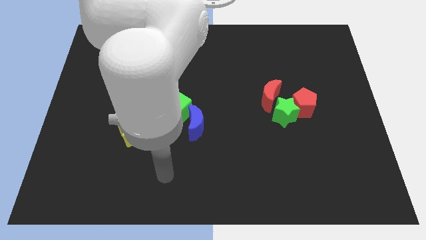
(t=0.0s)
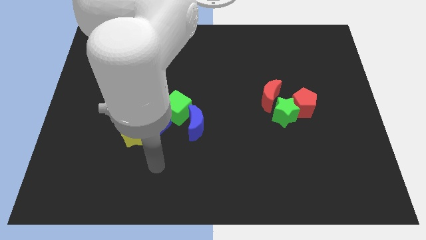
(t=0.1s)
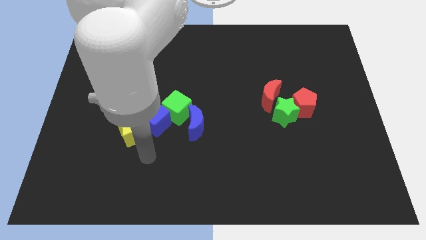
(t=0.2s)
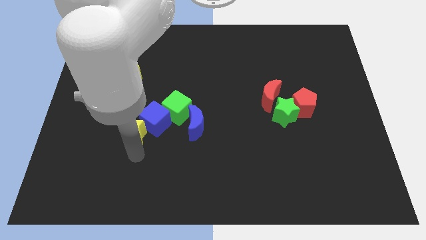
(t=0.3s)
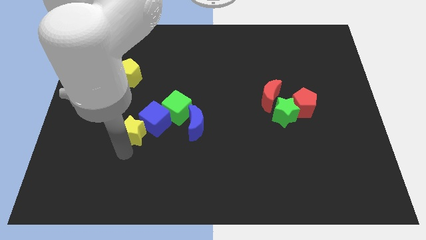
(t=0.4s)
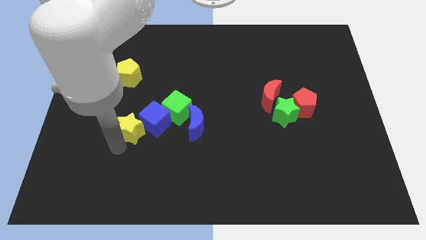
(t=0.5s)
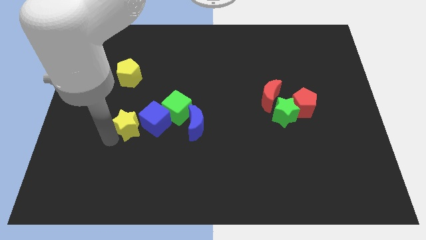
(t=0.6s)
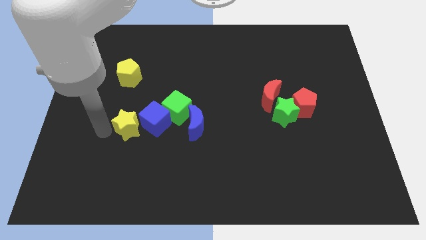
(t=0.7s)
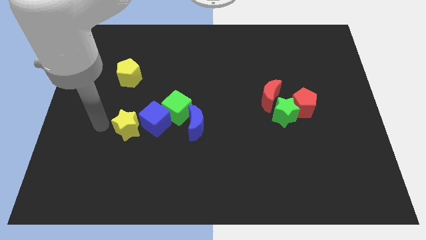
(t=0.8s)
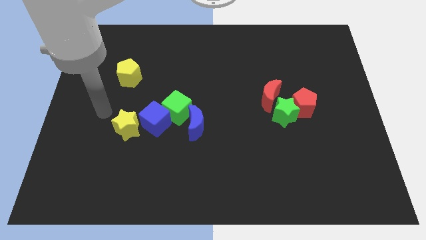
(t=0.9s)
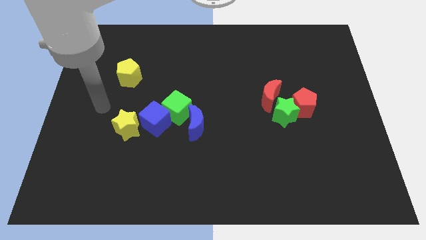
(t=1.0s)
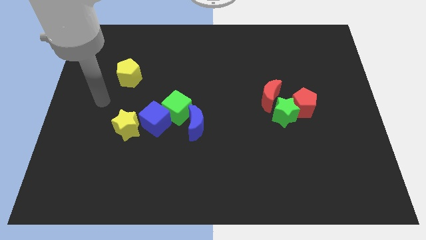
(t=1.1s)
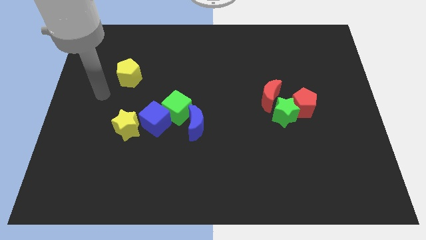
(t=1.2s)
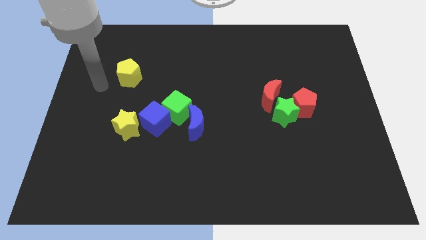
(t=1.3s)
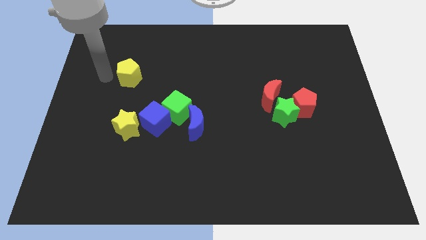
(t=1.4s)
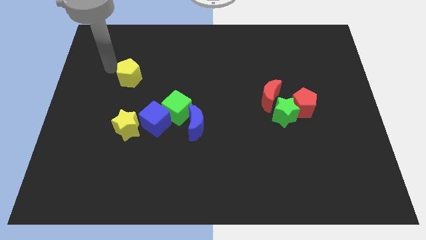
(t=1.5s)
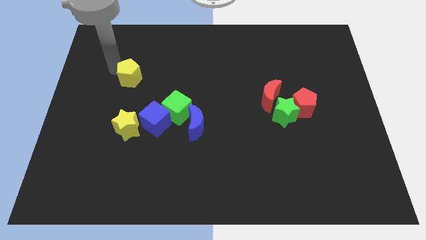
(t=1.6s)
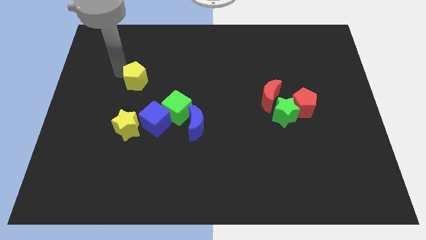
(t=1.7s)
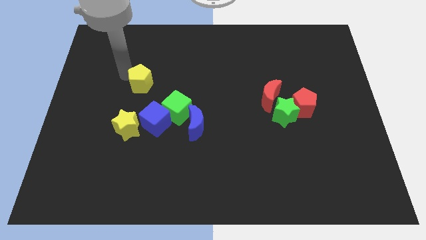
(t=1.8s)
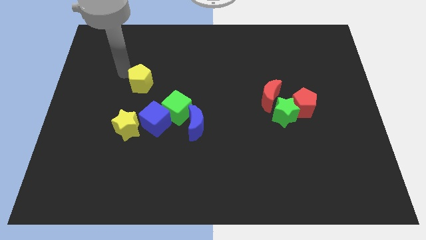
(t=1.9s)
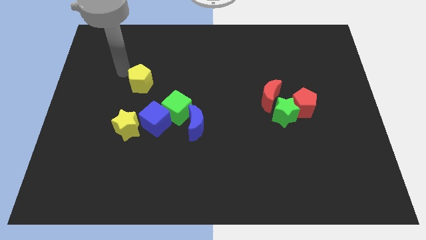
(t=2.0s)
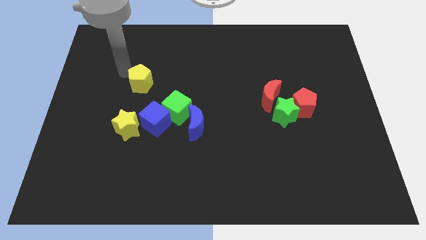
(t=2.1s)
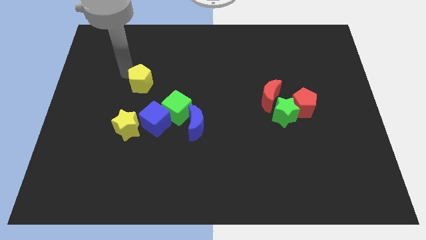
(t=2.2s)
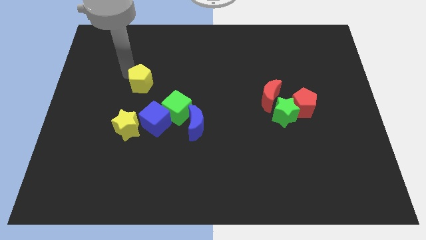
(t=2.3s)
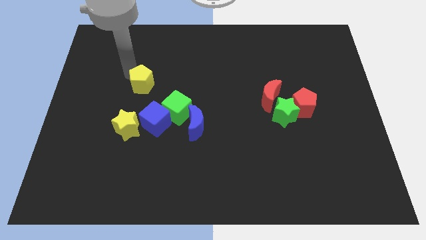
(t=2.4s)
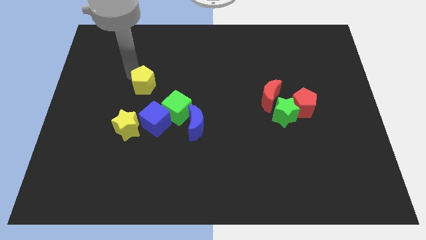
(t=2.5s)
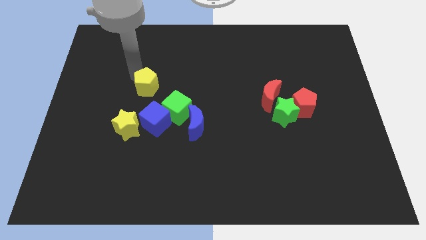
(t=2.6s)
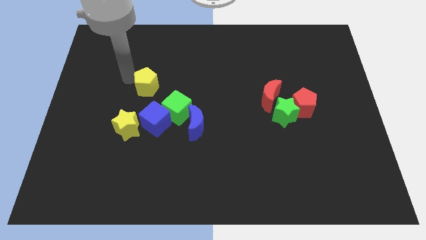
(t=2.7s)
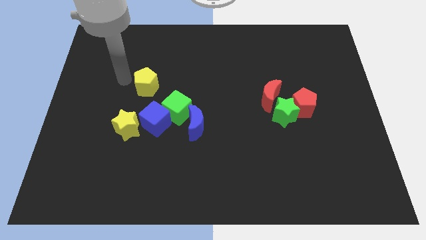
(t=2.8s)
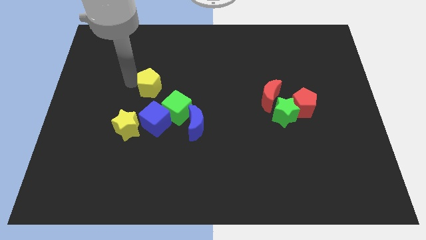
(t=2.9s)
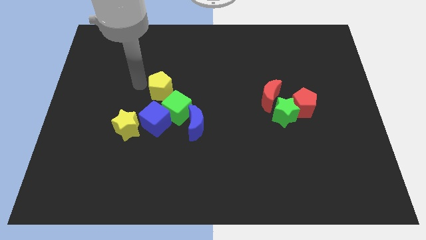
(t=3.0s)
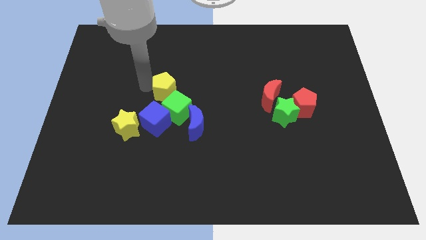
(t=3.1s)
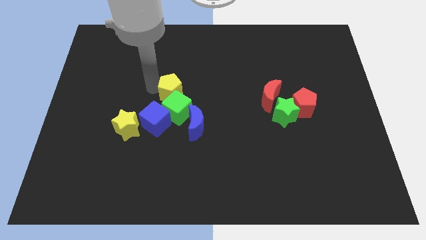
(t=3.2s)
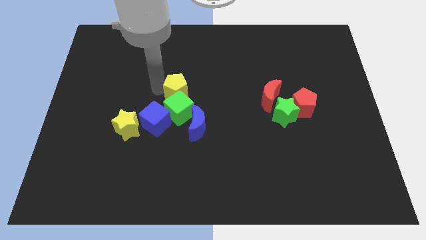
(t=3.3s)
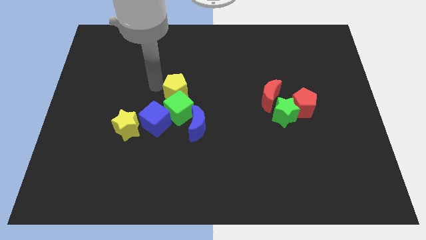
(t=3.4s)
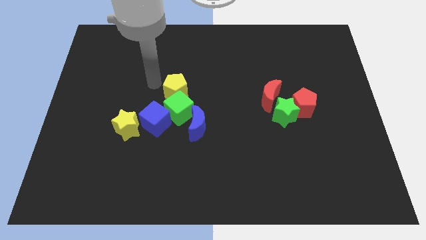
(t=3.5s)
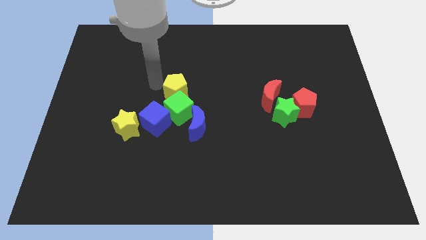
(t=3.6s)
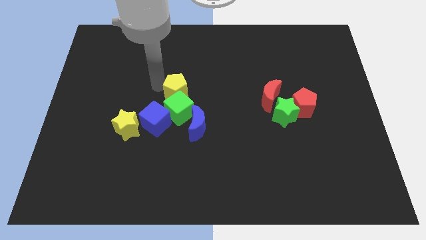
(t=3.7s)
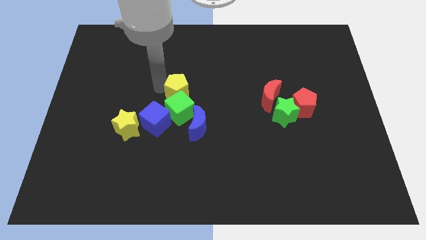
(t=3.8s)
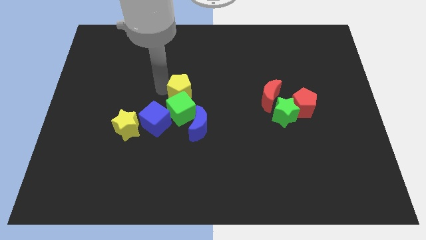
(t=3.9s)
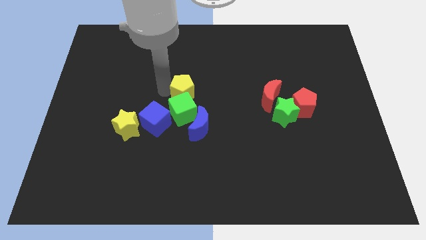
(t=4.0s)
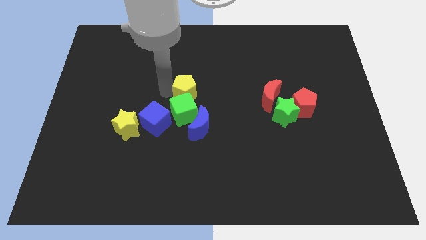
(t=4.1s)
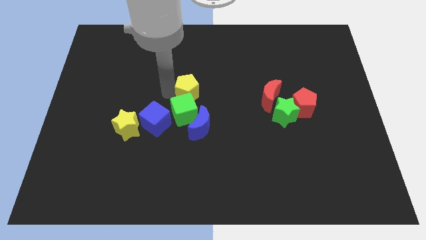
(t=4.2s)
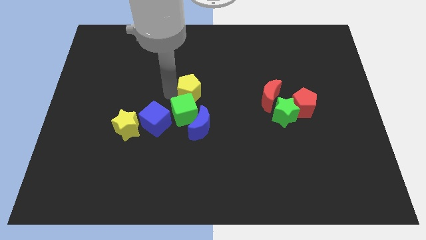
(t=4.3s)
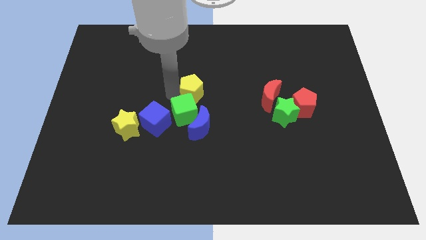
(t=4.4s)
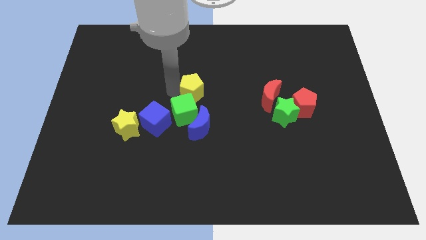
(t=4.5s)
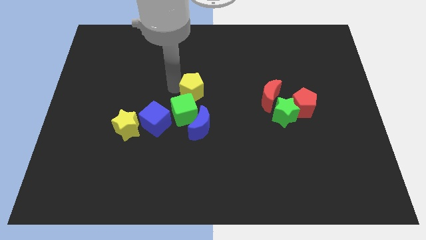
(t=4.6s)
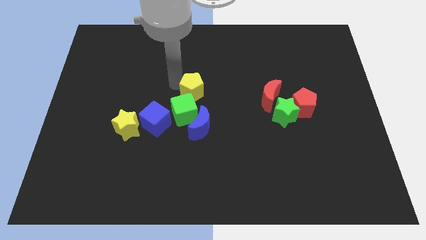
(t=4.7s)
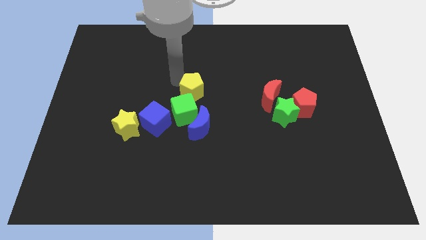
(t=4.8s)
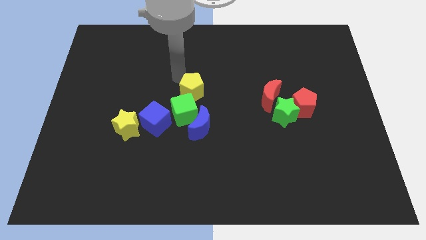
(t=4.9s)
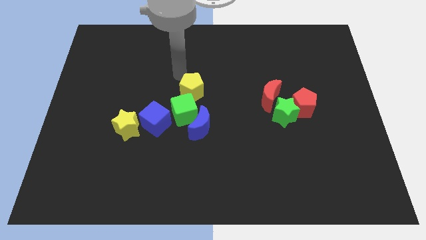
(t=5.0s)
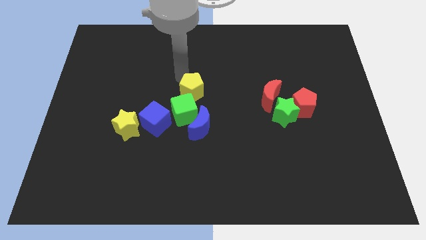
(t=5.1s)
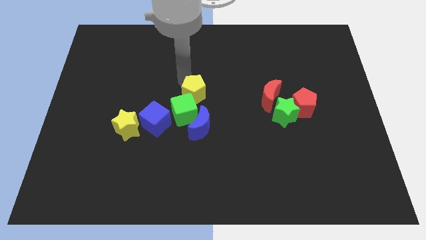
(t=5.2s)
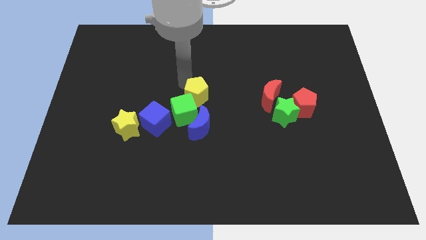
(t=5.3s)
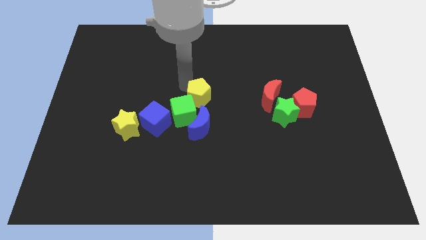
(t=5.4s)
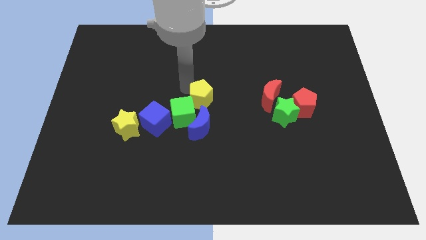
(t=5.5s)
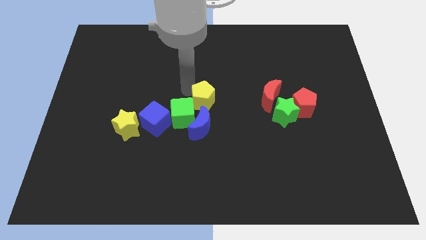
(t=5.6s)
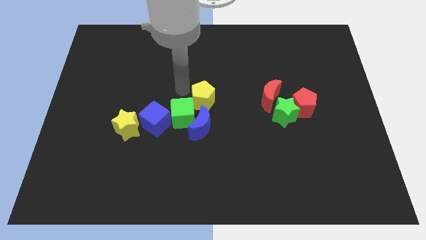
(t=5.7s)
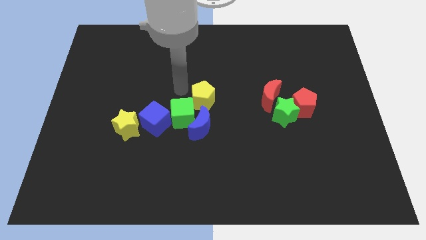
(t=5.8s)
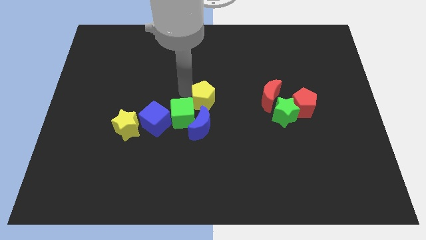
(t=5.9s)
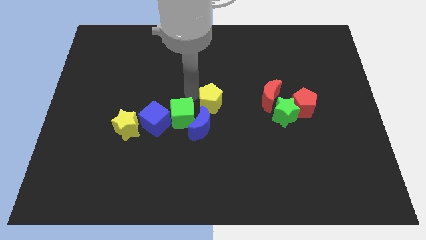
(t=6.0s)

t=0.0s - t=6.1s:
move the yellow pentagon to the top right side of the blue moon

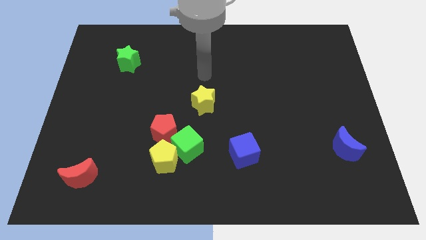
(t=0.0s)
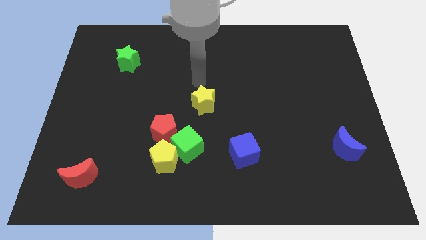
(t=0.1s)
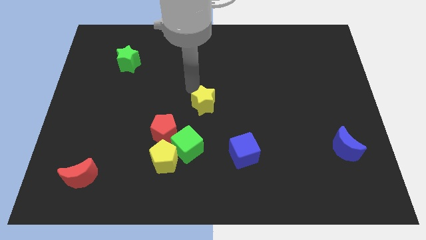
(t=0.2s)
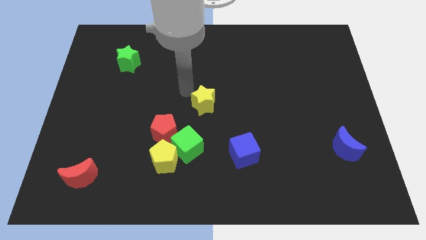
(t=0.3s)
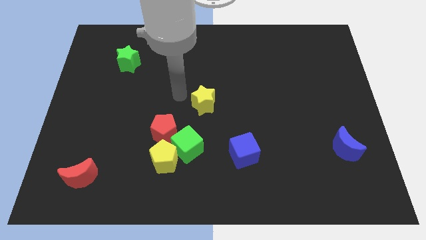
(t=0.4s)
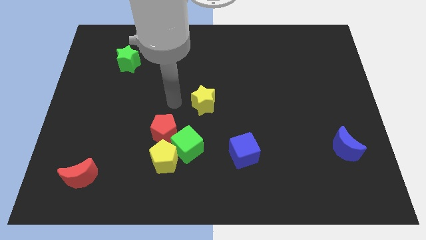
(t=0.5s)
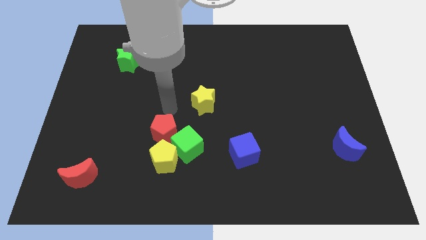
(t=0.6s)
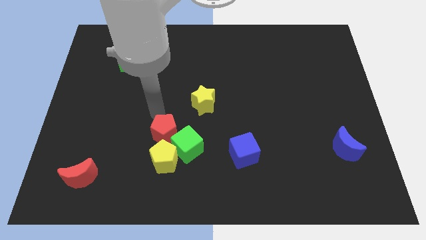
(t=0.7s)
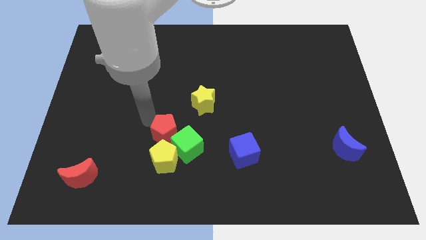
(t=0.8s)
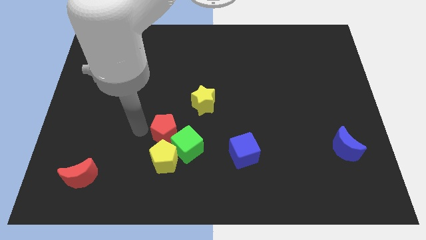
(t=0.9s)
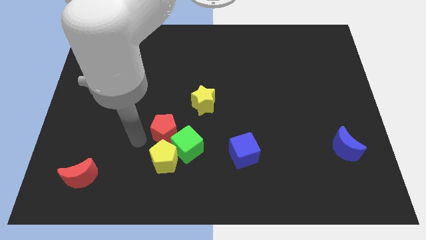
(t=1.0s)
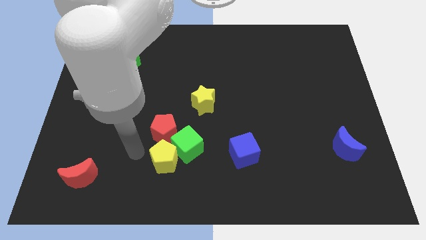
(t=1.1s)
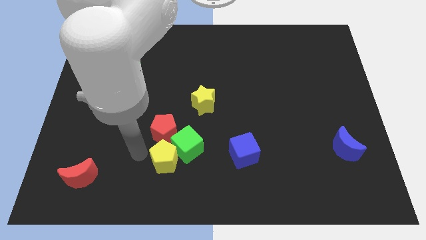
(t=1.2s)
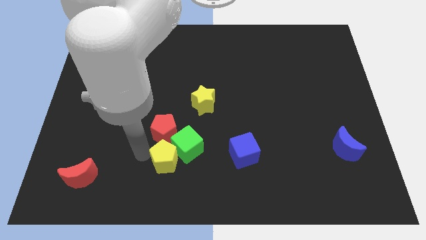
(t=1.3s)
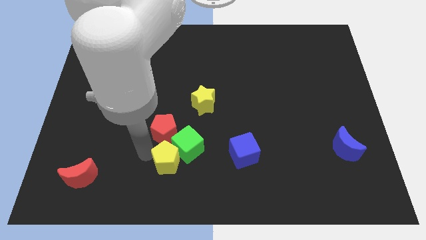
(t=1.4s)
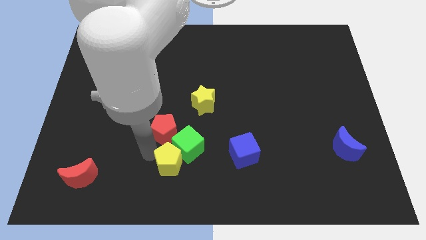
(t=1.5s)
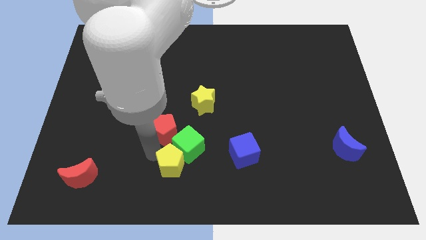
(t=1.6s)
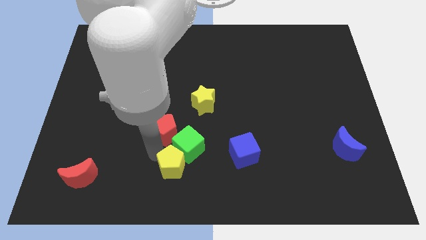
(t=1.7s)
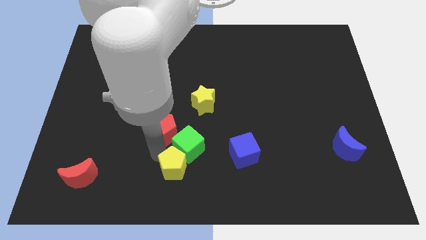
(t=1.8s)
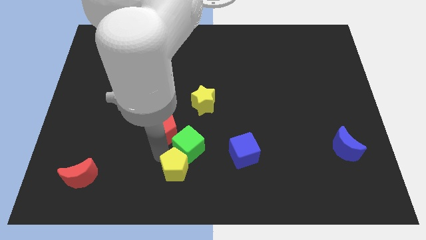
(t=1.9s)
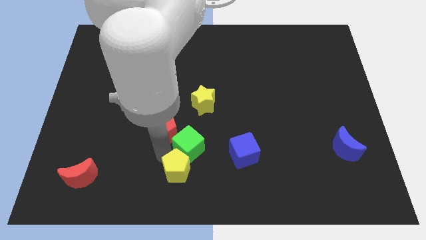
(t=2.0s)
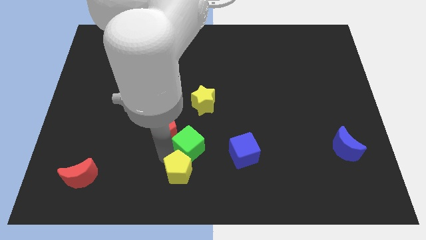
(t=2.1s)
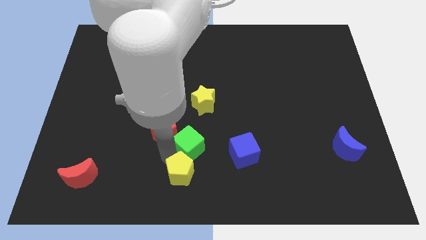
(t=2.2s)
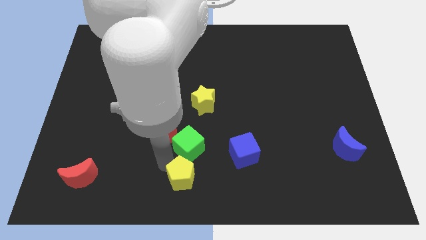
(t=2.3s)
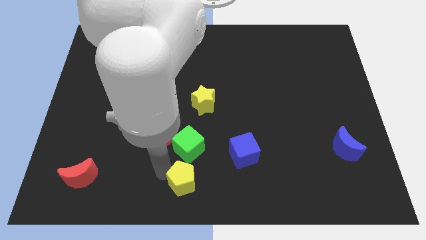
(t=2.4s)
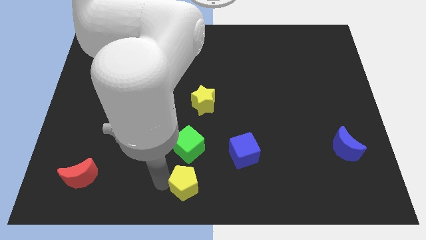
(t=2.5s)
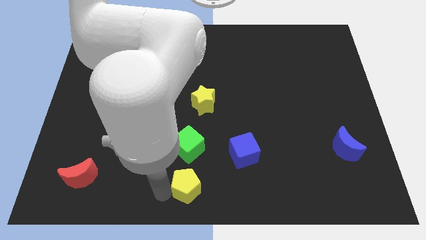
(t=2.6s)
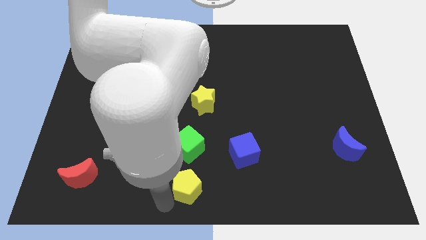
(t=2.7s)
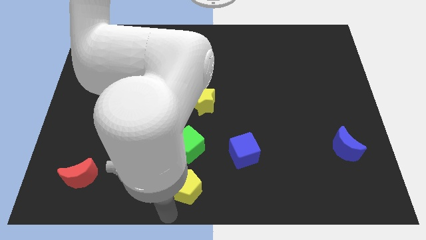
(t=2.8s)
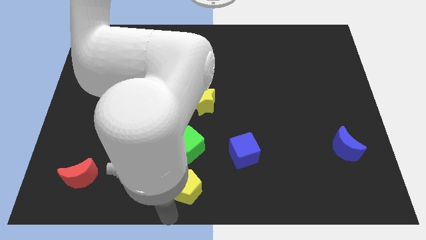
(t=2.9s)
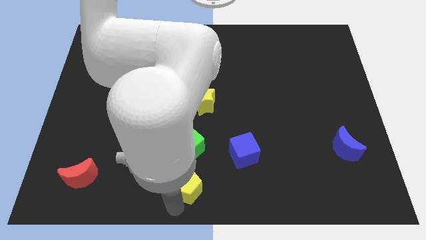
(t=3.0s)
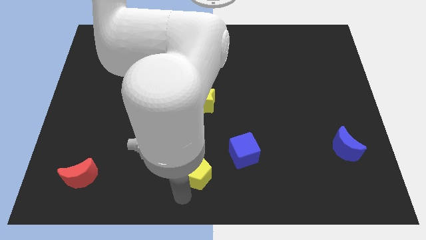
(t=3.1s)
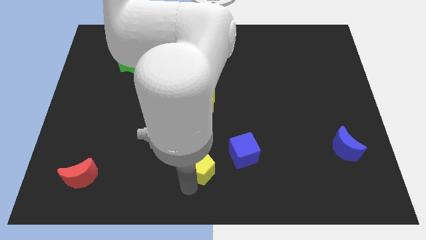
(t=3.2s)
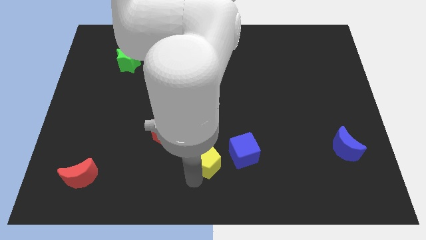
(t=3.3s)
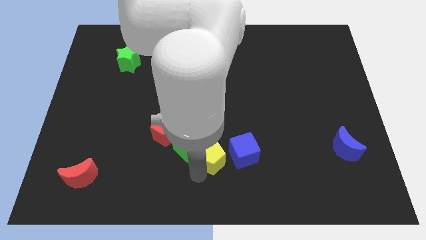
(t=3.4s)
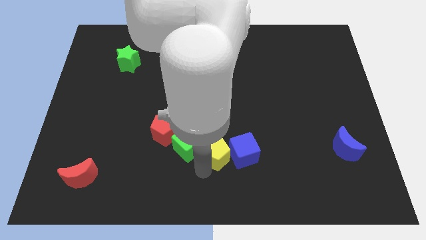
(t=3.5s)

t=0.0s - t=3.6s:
put the yellow pentagon to the top left of the blue cube
